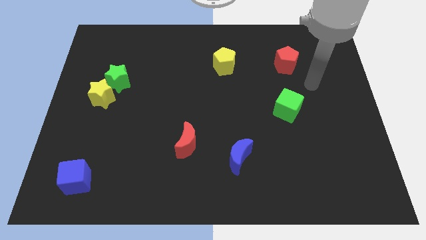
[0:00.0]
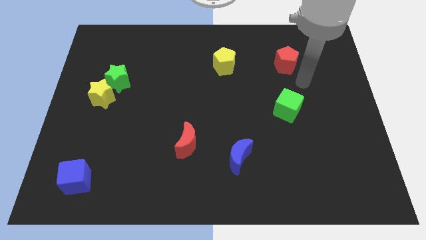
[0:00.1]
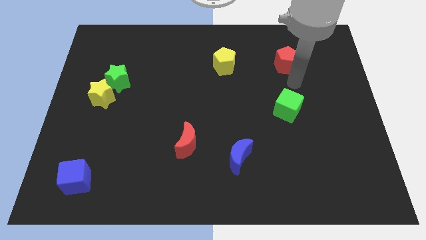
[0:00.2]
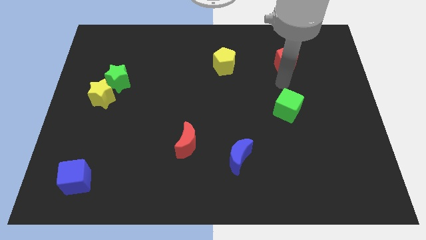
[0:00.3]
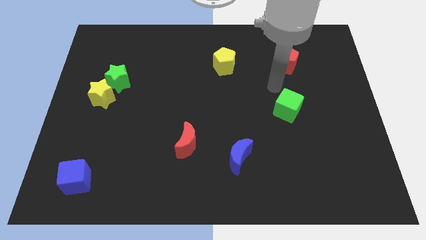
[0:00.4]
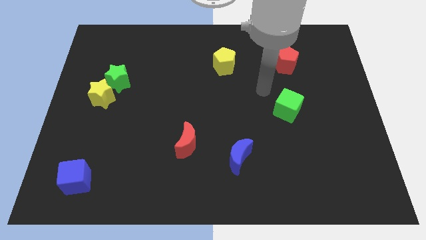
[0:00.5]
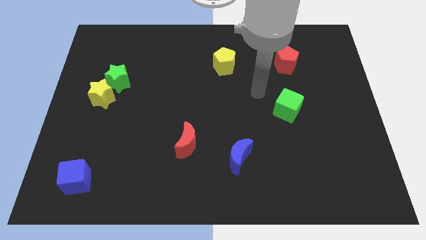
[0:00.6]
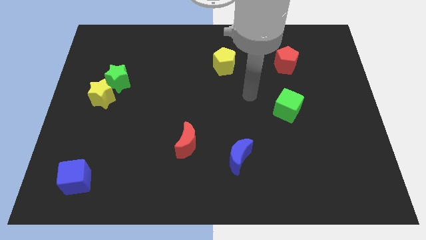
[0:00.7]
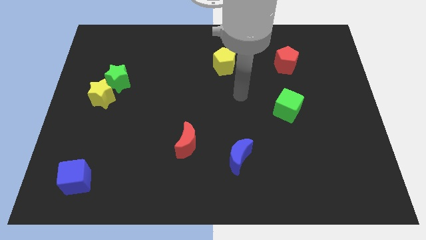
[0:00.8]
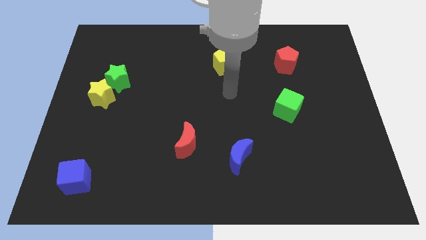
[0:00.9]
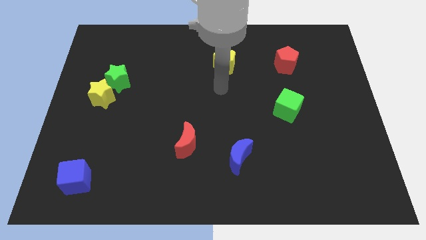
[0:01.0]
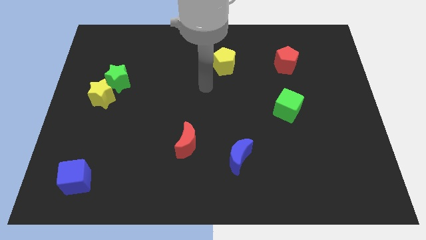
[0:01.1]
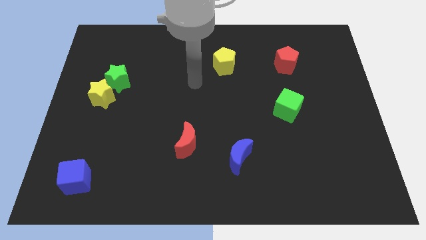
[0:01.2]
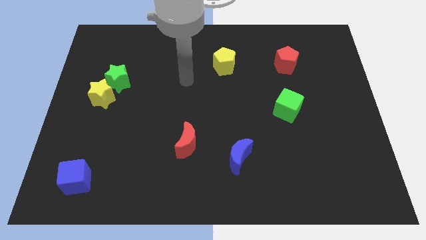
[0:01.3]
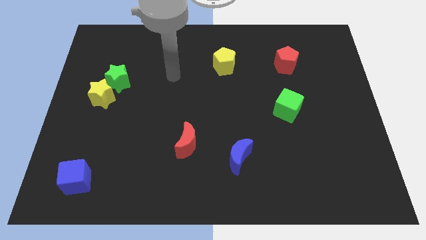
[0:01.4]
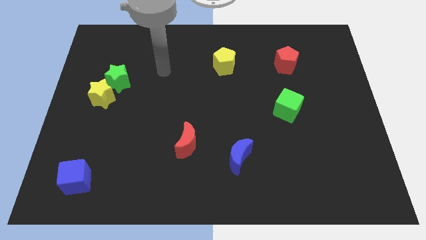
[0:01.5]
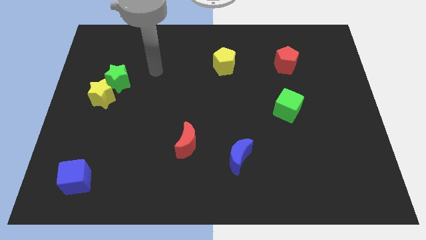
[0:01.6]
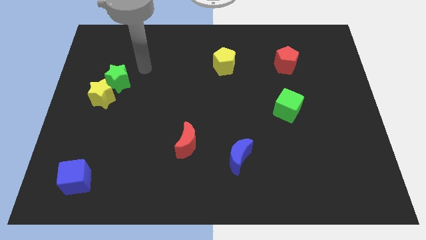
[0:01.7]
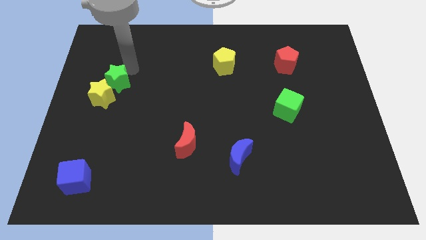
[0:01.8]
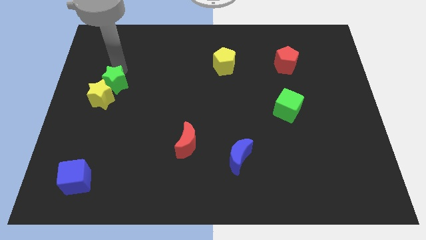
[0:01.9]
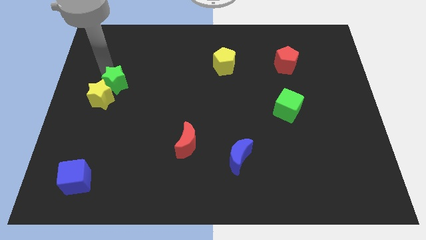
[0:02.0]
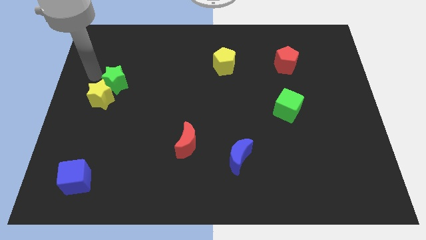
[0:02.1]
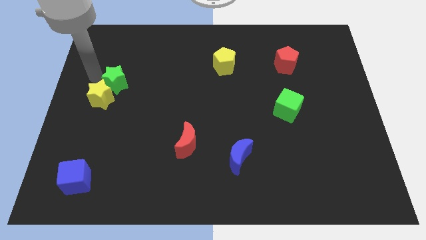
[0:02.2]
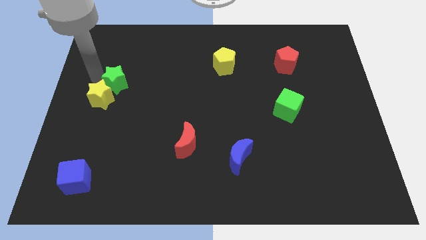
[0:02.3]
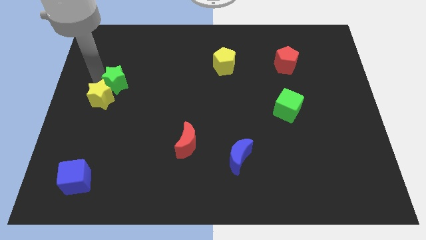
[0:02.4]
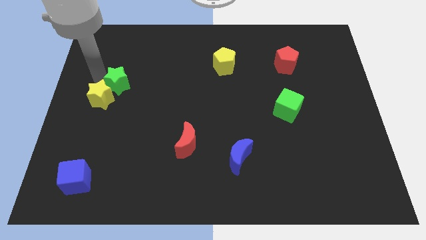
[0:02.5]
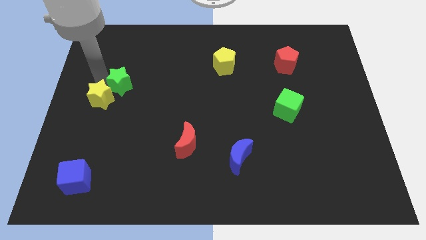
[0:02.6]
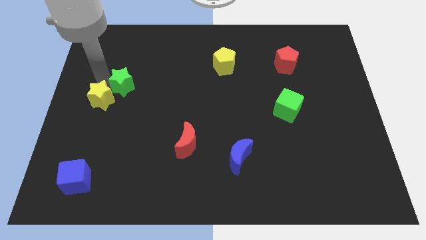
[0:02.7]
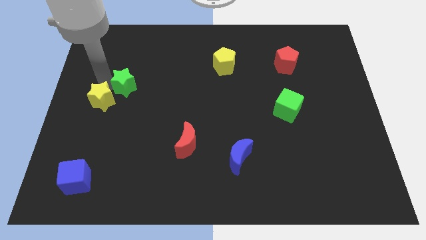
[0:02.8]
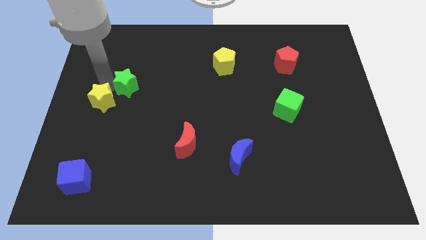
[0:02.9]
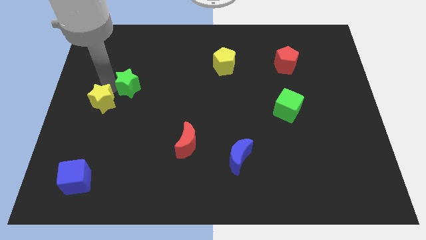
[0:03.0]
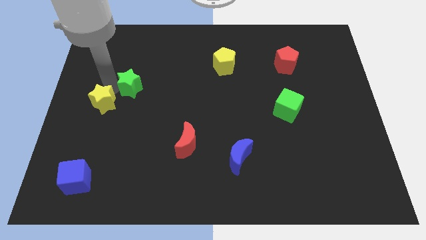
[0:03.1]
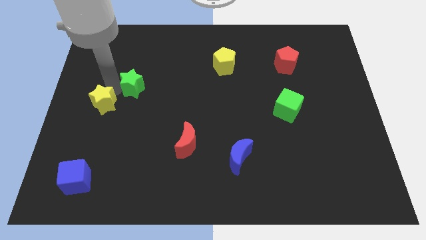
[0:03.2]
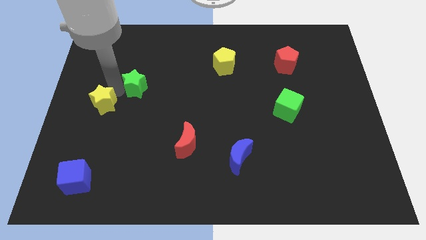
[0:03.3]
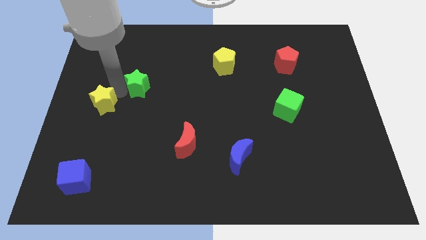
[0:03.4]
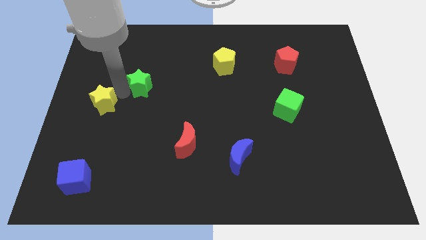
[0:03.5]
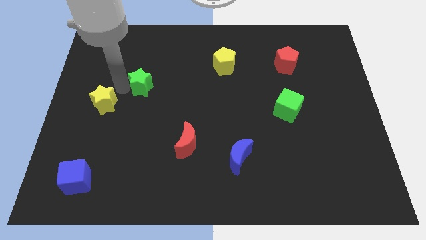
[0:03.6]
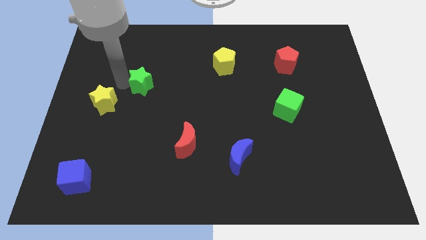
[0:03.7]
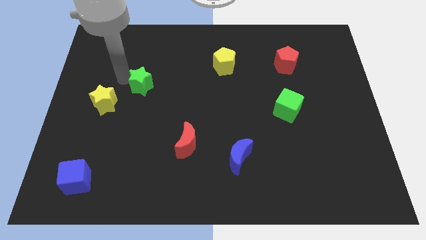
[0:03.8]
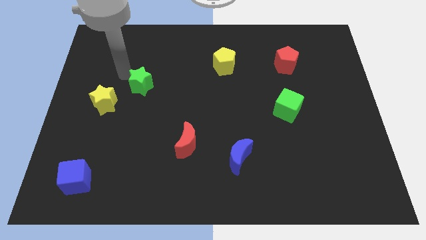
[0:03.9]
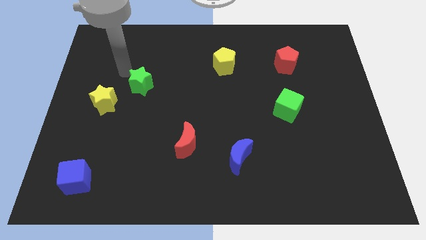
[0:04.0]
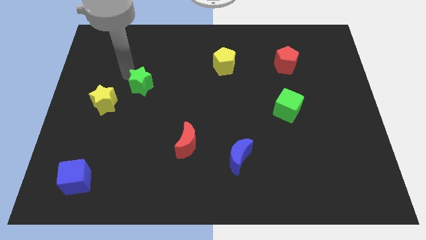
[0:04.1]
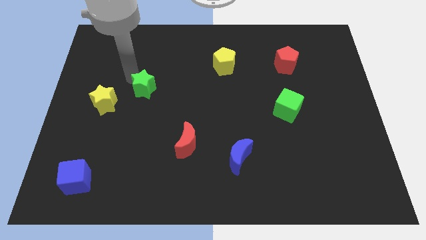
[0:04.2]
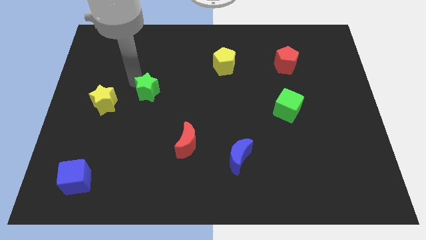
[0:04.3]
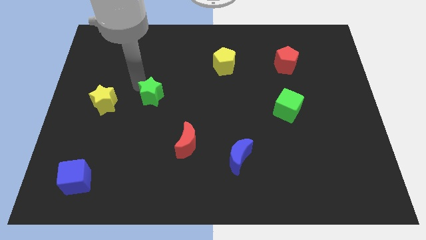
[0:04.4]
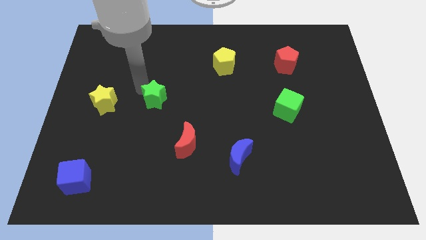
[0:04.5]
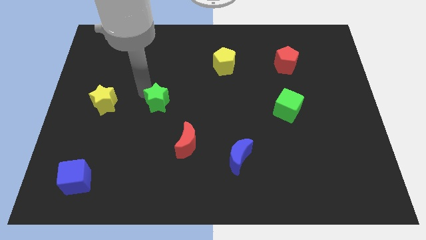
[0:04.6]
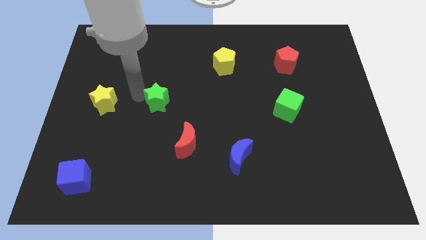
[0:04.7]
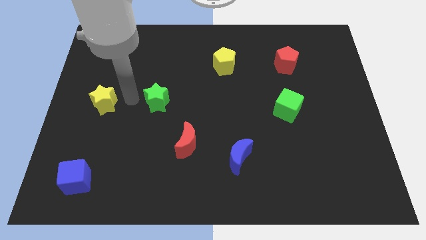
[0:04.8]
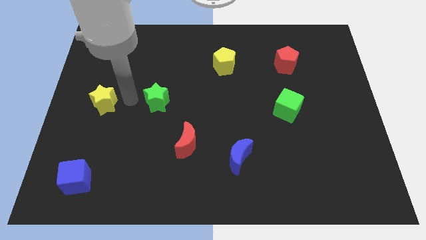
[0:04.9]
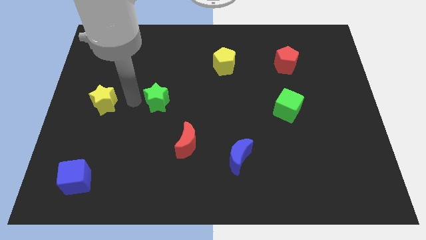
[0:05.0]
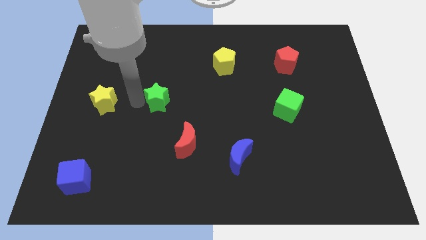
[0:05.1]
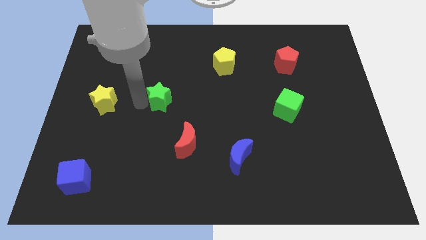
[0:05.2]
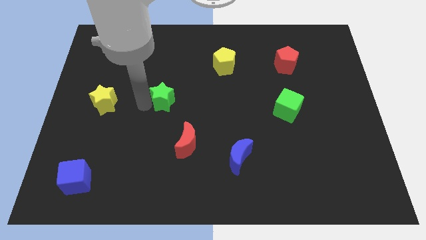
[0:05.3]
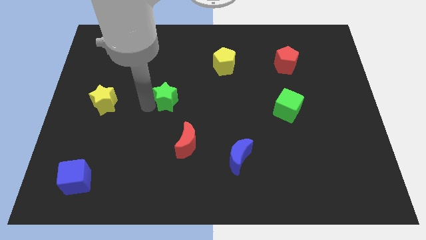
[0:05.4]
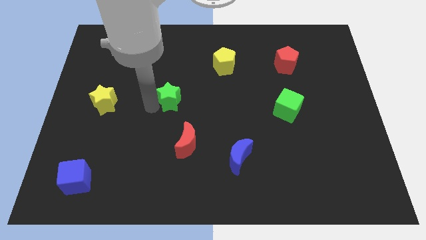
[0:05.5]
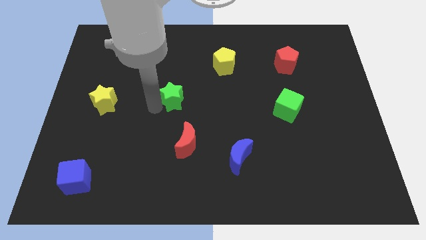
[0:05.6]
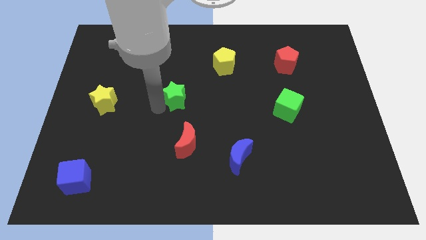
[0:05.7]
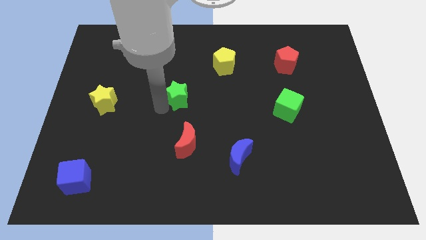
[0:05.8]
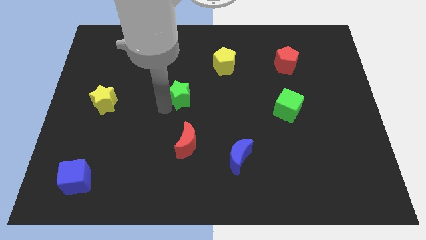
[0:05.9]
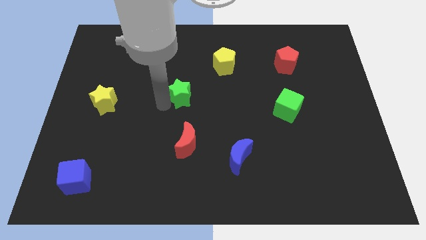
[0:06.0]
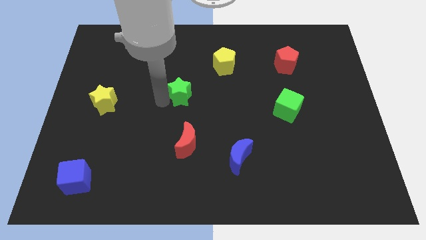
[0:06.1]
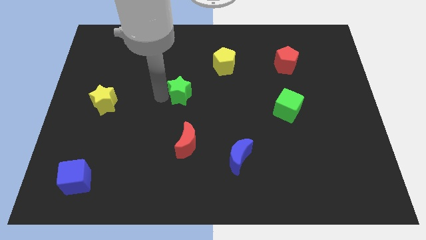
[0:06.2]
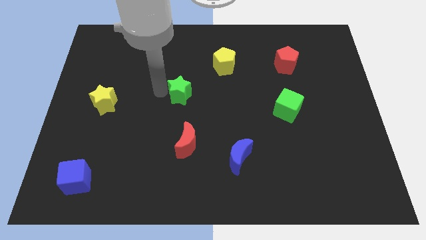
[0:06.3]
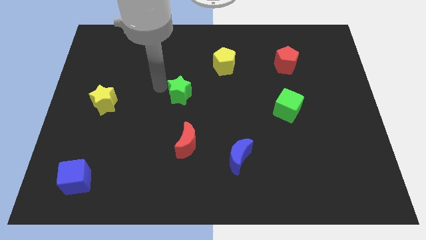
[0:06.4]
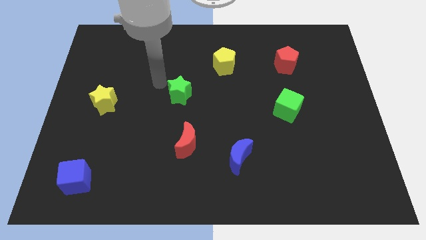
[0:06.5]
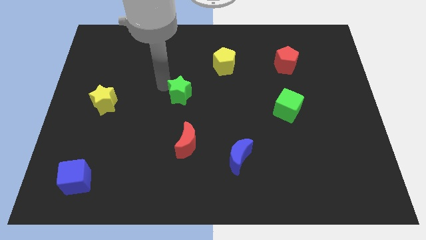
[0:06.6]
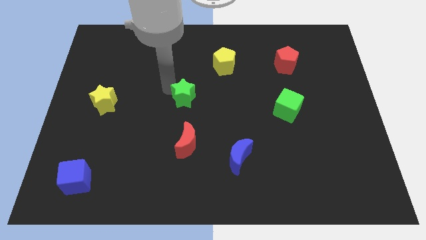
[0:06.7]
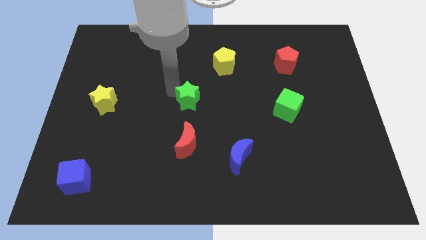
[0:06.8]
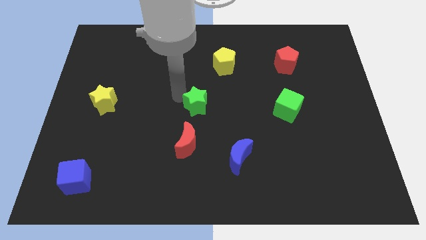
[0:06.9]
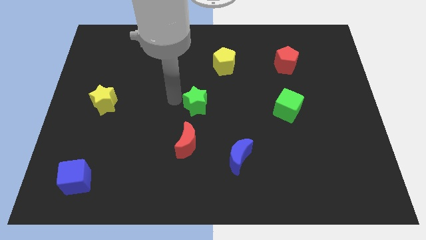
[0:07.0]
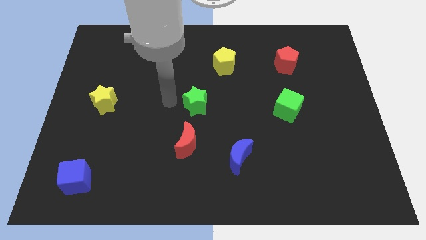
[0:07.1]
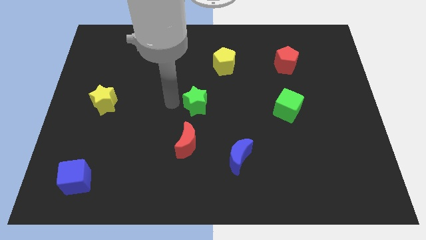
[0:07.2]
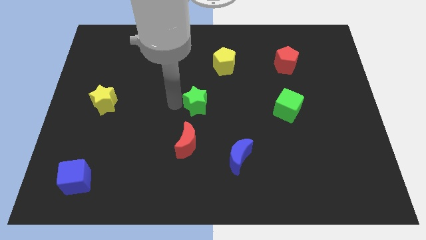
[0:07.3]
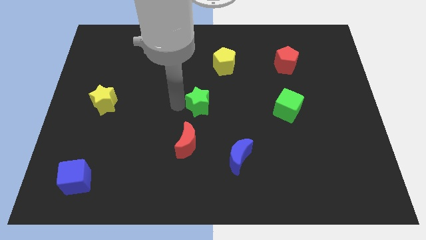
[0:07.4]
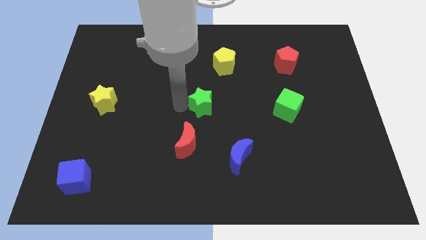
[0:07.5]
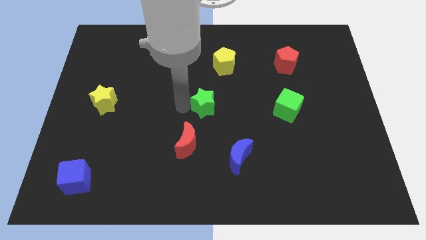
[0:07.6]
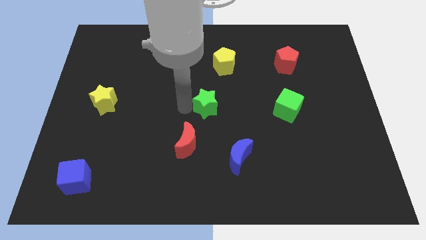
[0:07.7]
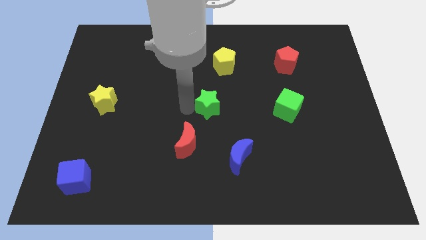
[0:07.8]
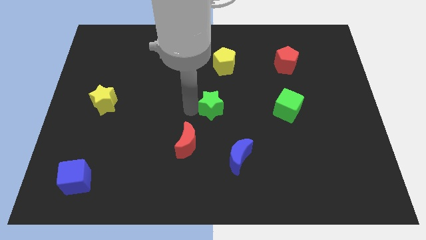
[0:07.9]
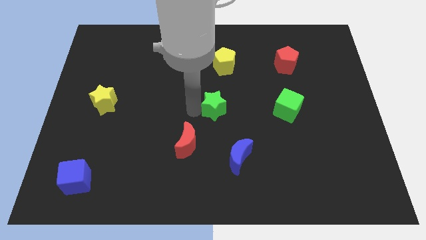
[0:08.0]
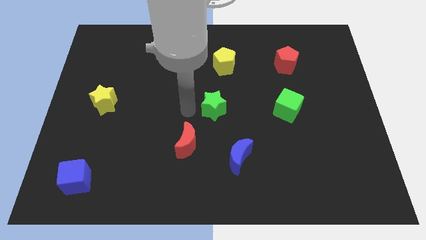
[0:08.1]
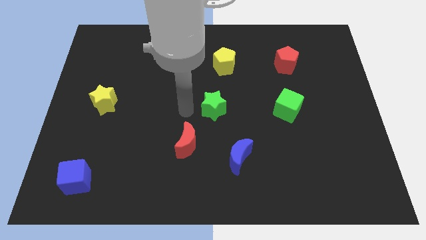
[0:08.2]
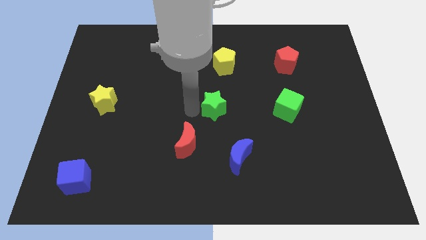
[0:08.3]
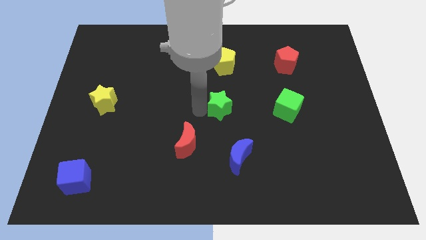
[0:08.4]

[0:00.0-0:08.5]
put the green star just left of the green cube
